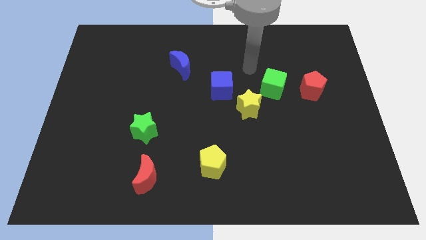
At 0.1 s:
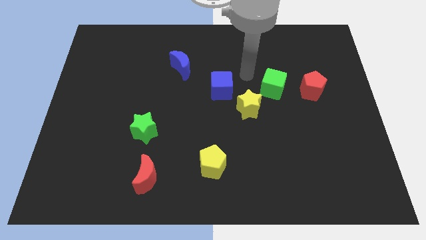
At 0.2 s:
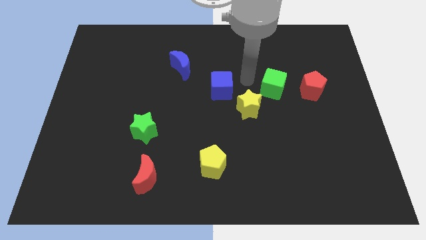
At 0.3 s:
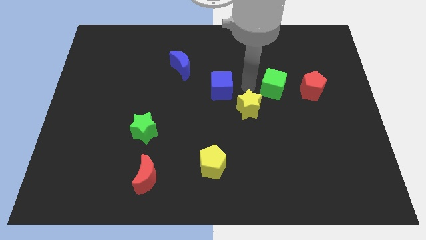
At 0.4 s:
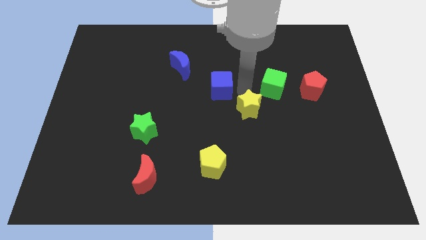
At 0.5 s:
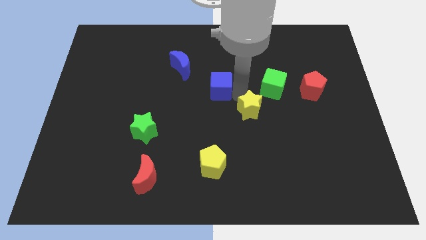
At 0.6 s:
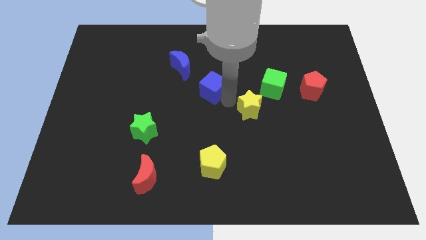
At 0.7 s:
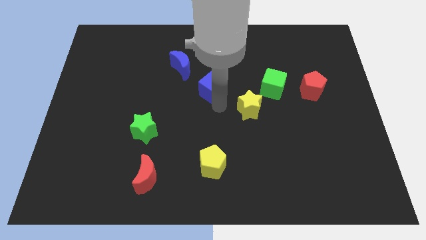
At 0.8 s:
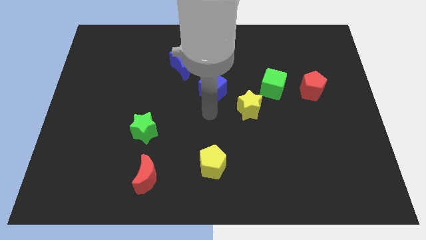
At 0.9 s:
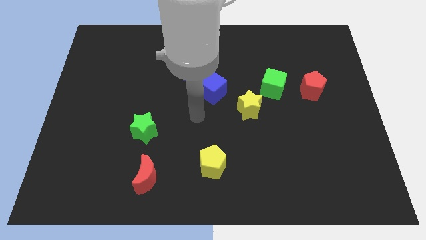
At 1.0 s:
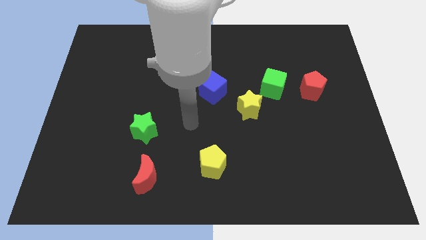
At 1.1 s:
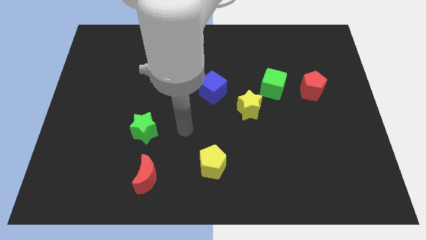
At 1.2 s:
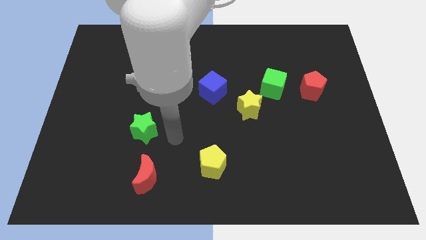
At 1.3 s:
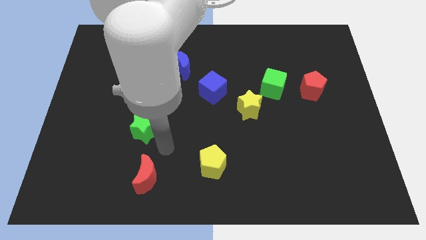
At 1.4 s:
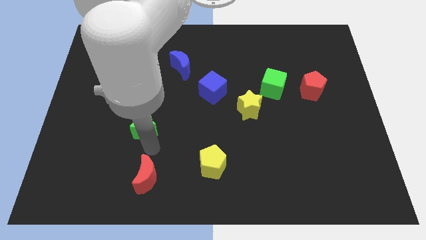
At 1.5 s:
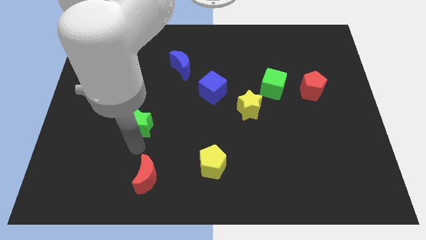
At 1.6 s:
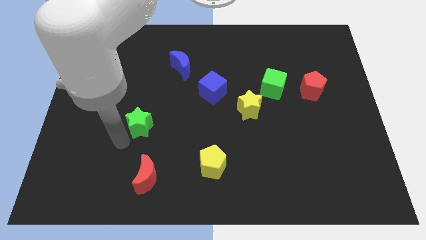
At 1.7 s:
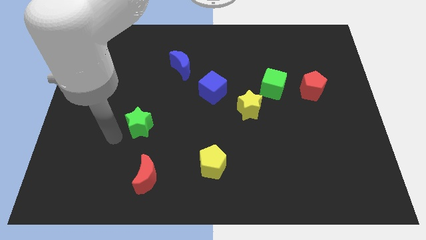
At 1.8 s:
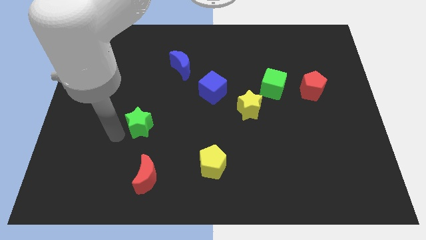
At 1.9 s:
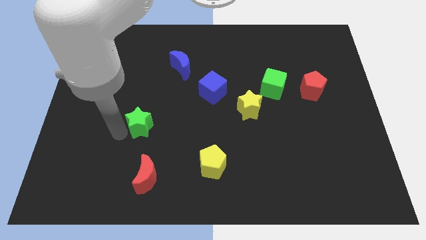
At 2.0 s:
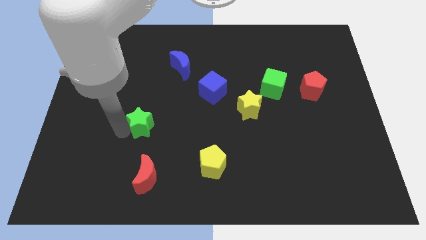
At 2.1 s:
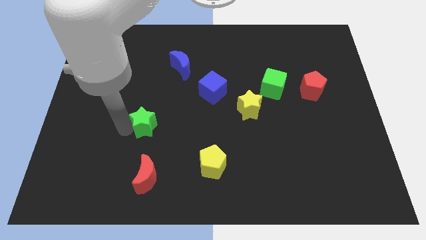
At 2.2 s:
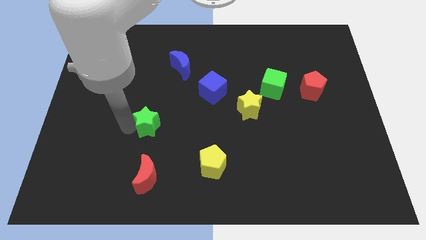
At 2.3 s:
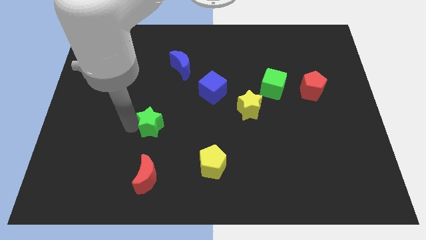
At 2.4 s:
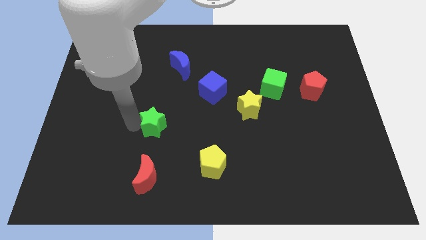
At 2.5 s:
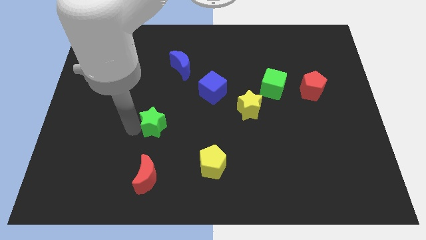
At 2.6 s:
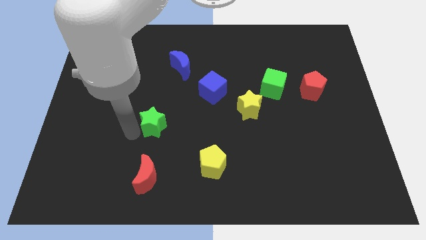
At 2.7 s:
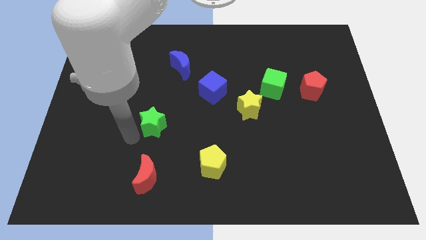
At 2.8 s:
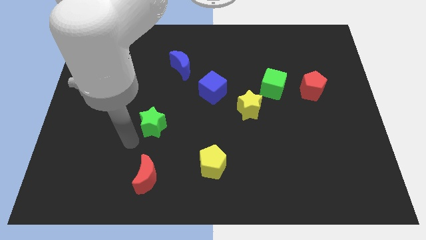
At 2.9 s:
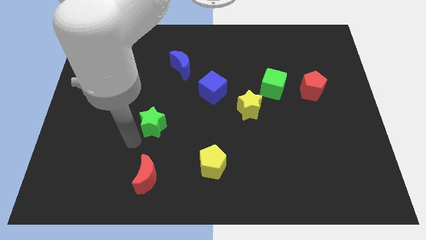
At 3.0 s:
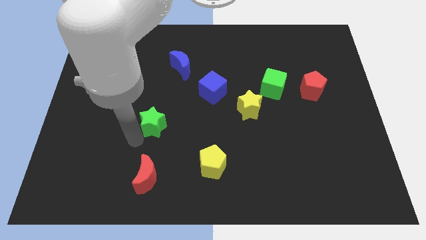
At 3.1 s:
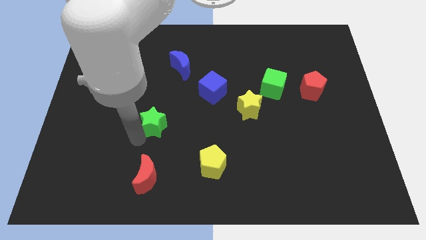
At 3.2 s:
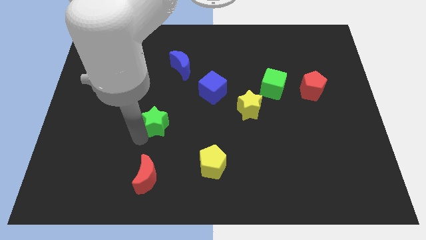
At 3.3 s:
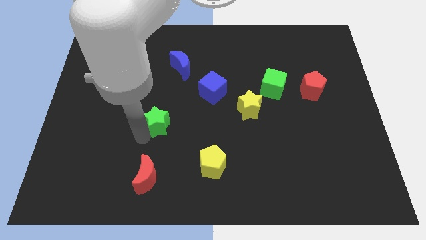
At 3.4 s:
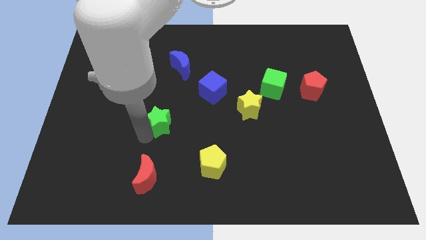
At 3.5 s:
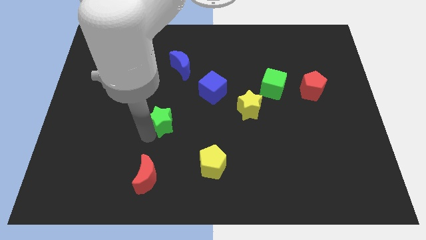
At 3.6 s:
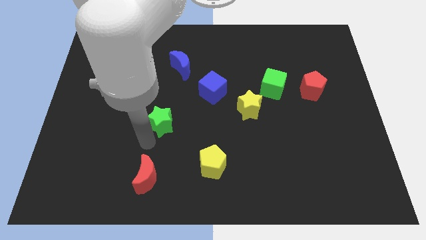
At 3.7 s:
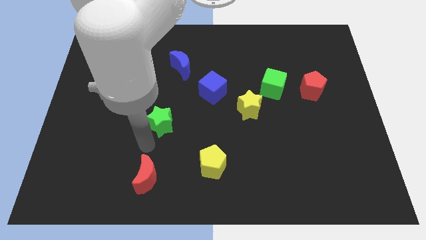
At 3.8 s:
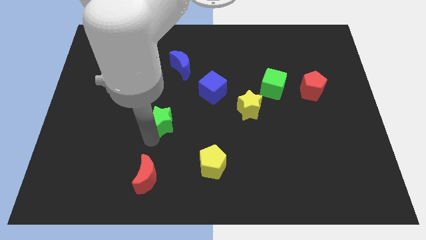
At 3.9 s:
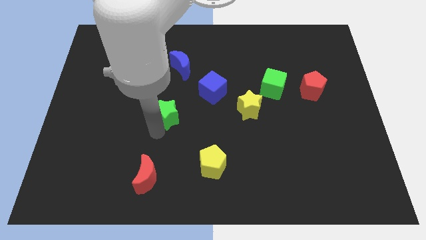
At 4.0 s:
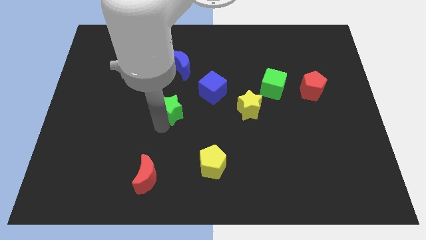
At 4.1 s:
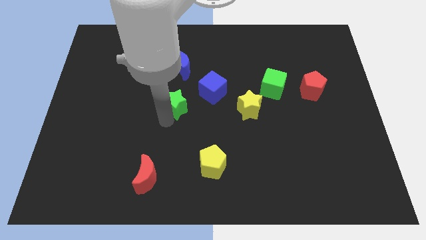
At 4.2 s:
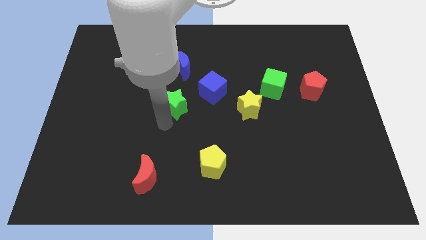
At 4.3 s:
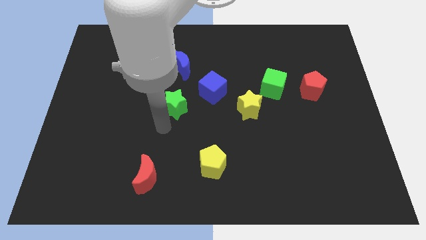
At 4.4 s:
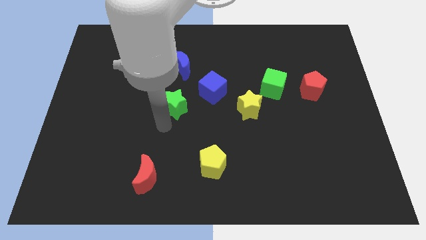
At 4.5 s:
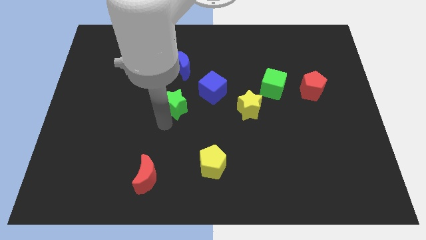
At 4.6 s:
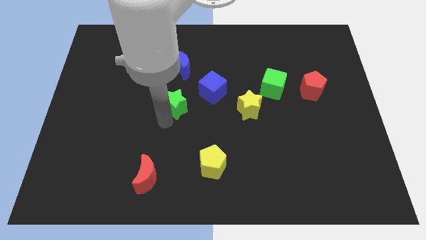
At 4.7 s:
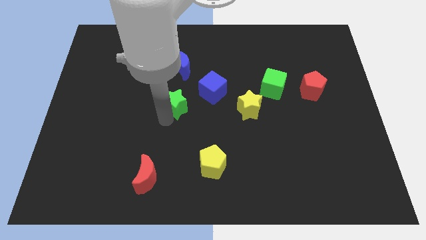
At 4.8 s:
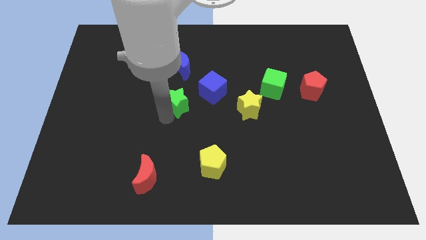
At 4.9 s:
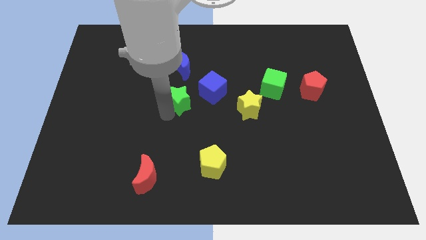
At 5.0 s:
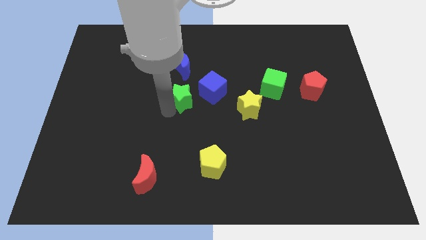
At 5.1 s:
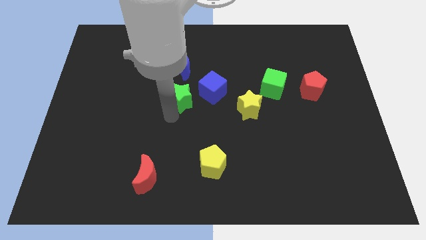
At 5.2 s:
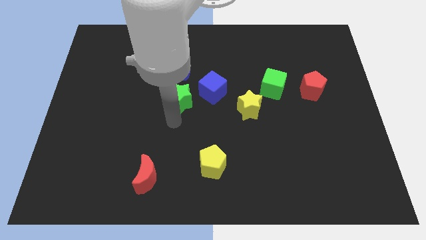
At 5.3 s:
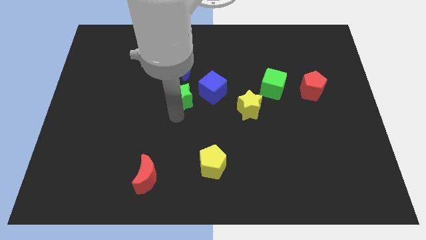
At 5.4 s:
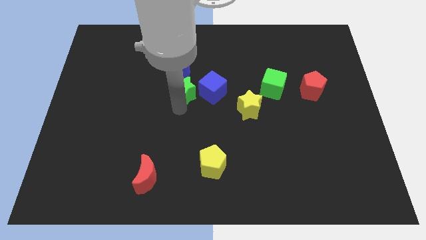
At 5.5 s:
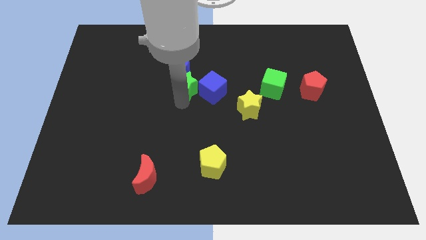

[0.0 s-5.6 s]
slide the green star diagonally up and to the left of the blue cube

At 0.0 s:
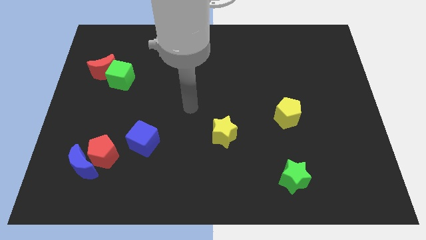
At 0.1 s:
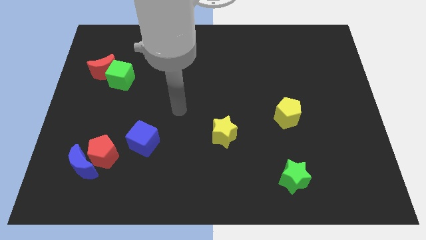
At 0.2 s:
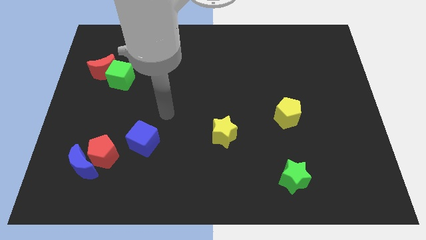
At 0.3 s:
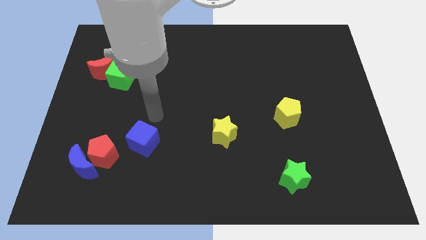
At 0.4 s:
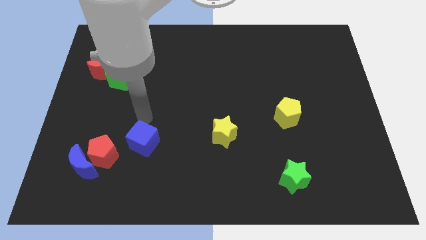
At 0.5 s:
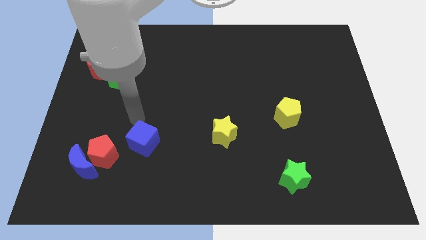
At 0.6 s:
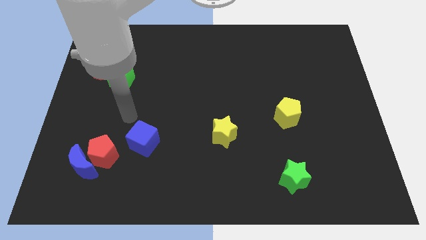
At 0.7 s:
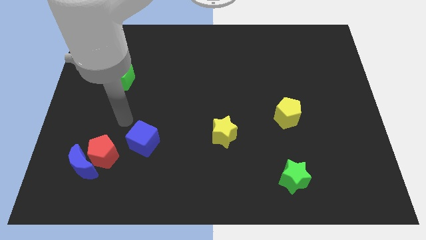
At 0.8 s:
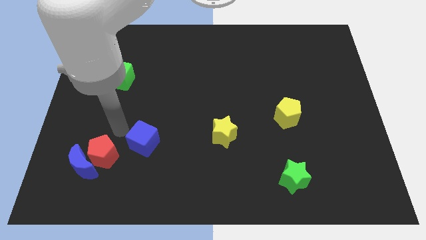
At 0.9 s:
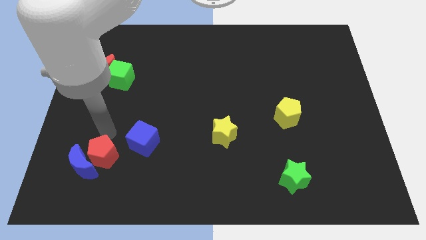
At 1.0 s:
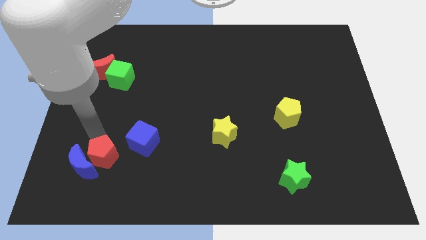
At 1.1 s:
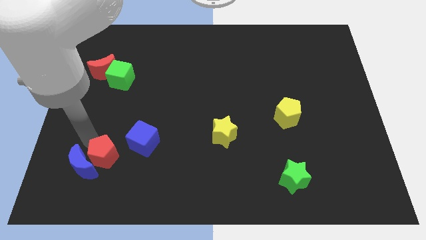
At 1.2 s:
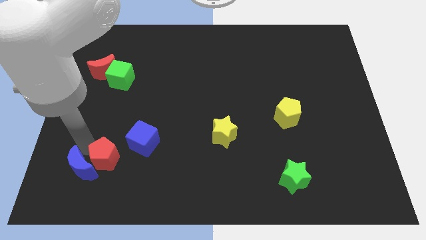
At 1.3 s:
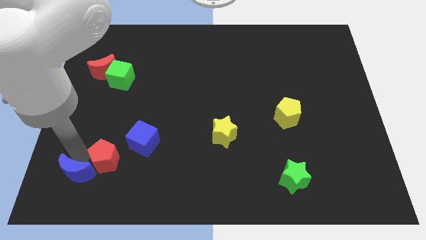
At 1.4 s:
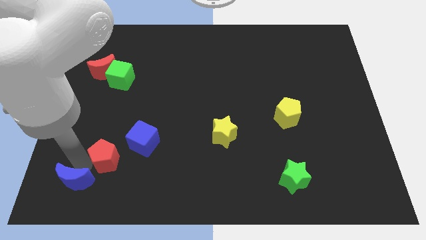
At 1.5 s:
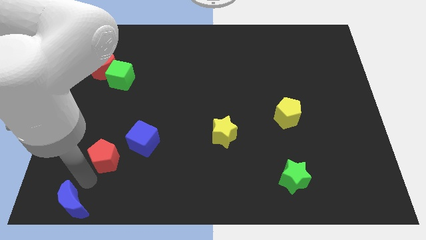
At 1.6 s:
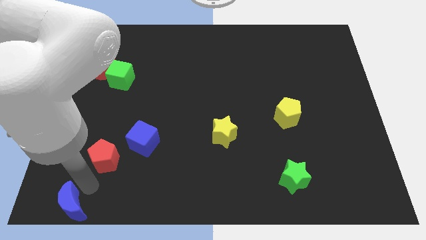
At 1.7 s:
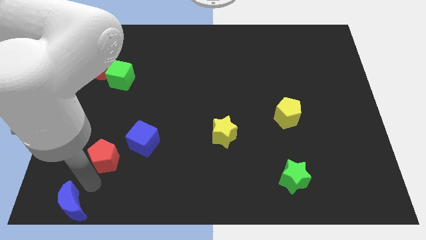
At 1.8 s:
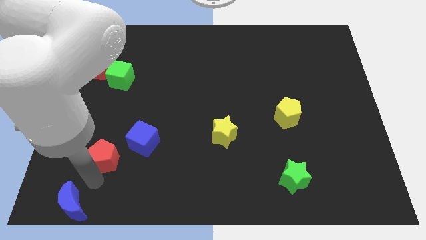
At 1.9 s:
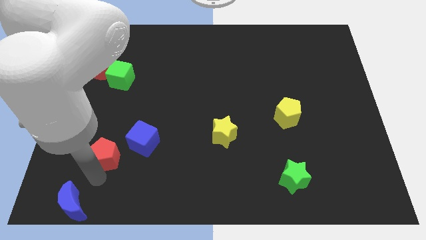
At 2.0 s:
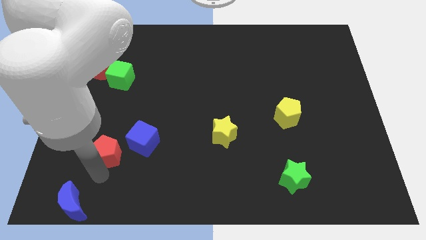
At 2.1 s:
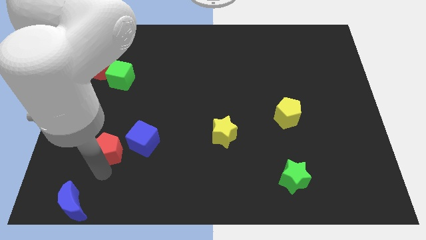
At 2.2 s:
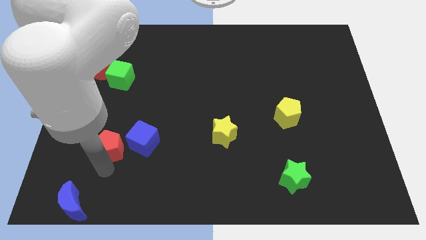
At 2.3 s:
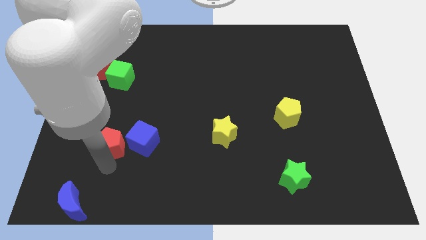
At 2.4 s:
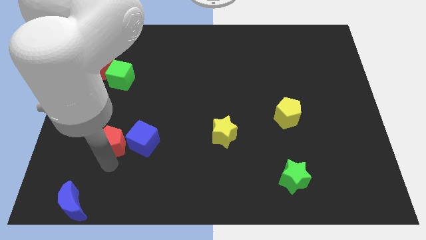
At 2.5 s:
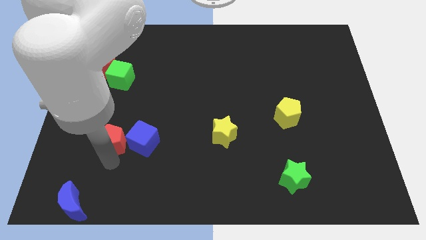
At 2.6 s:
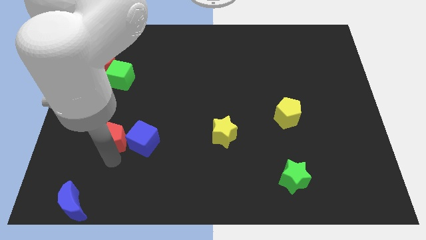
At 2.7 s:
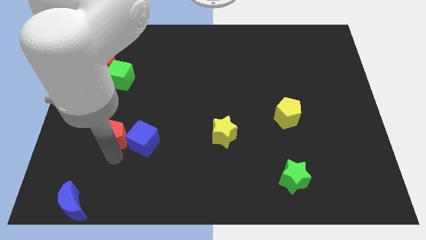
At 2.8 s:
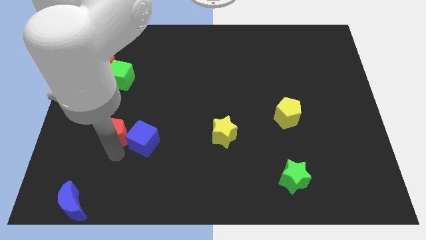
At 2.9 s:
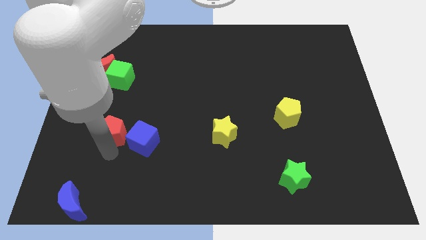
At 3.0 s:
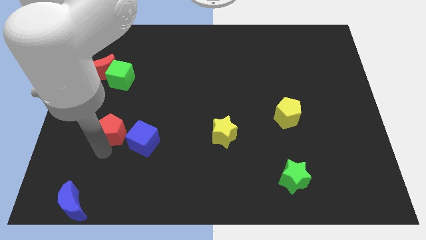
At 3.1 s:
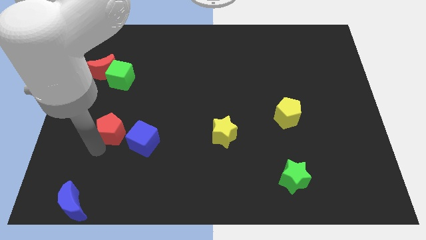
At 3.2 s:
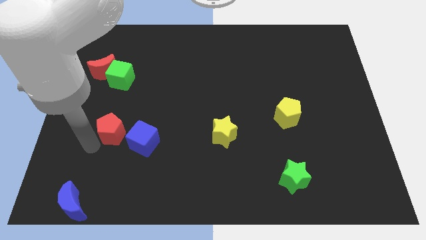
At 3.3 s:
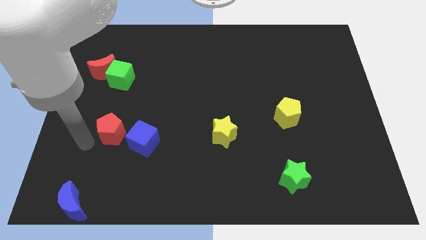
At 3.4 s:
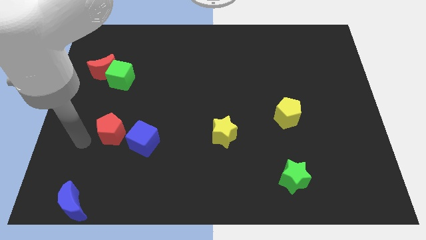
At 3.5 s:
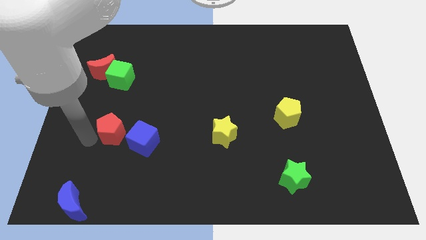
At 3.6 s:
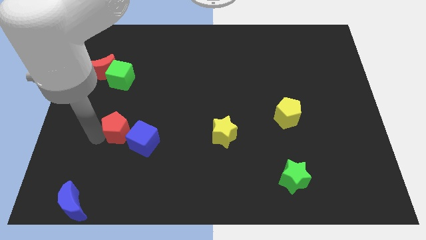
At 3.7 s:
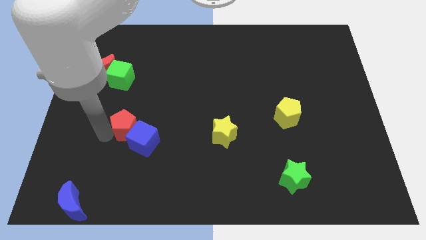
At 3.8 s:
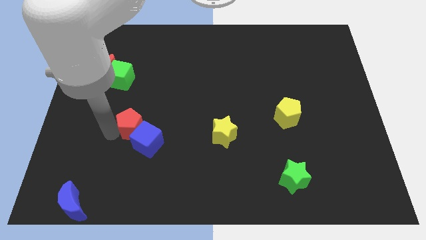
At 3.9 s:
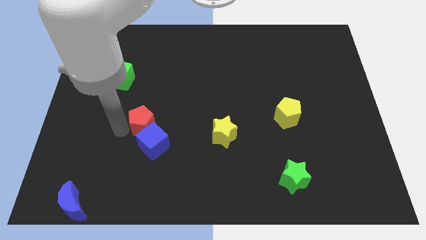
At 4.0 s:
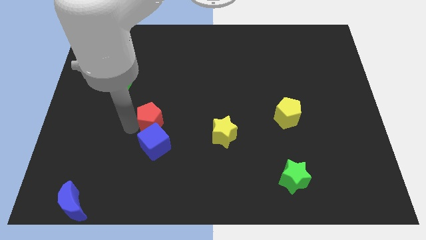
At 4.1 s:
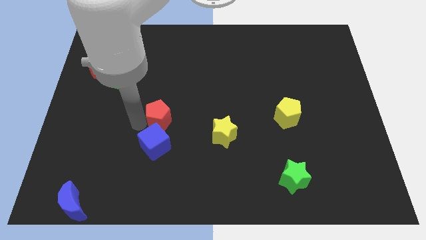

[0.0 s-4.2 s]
slide the red pentagon diagonally up and to the right of the blue cube
